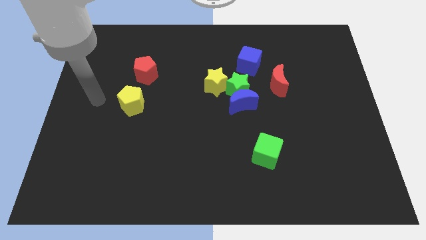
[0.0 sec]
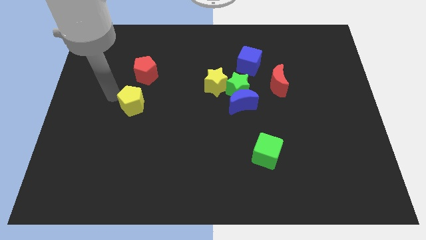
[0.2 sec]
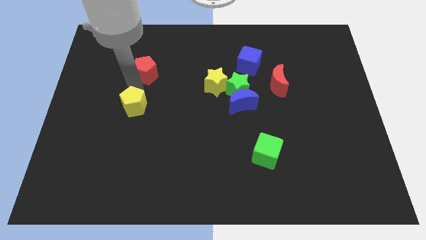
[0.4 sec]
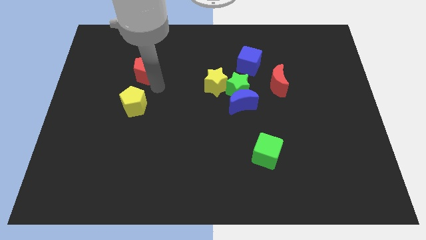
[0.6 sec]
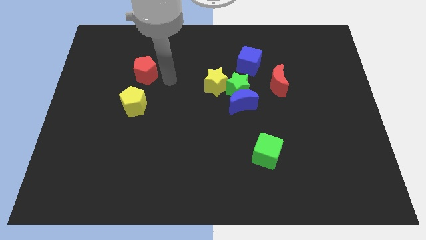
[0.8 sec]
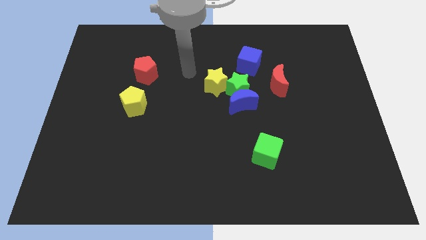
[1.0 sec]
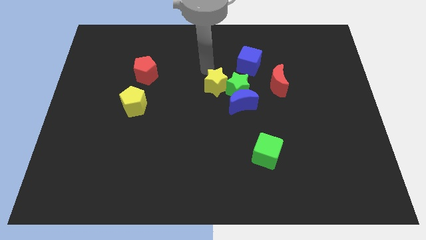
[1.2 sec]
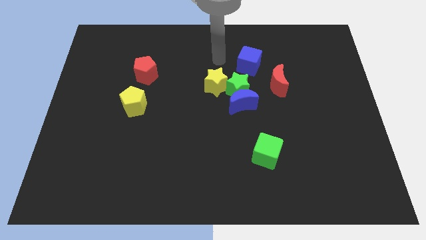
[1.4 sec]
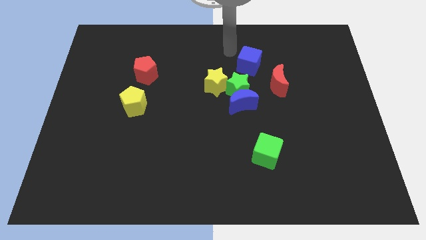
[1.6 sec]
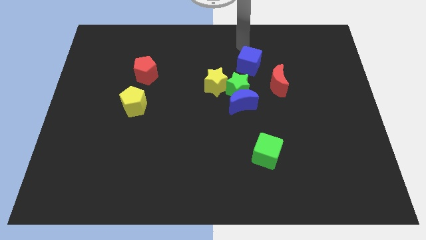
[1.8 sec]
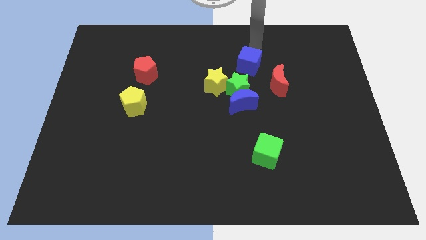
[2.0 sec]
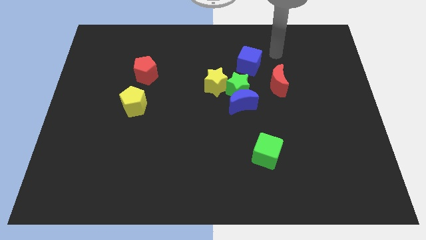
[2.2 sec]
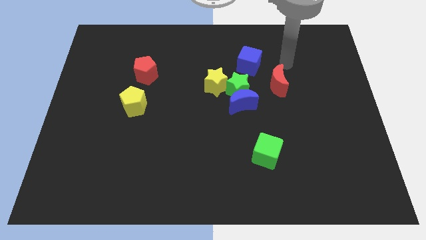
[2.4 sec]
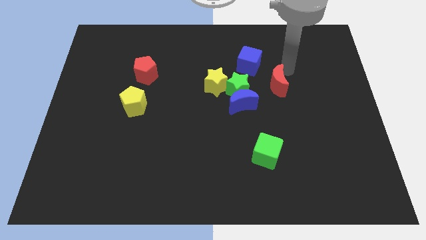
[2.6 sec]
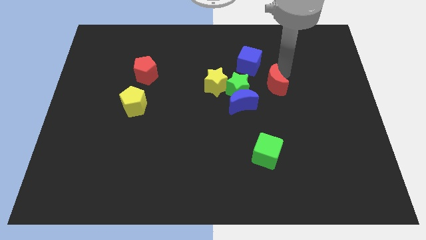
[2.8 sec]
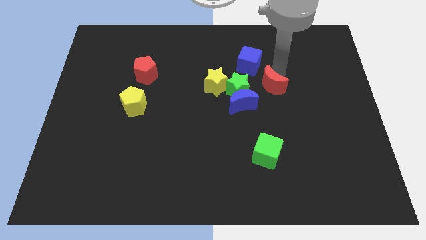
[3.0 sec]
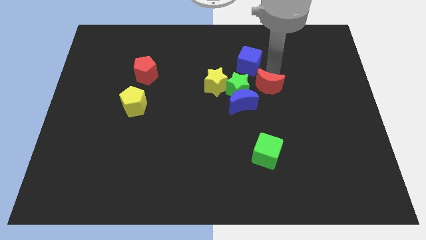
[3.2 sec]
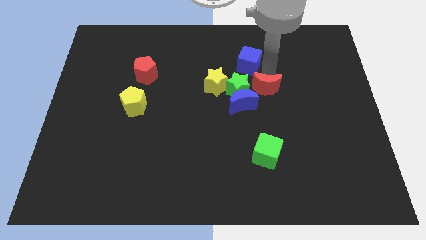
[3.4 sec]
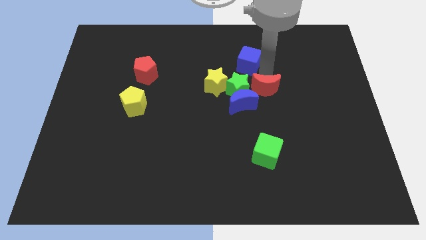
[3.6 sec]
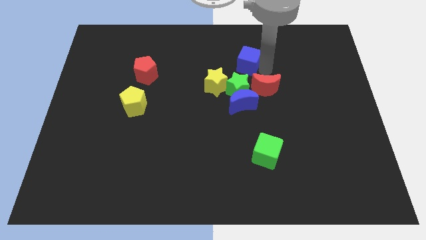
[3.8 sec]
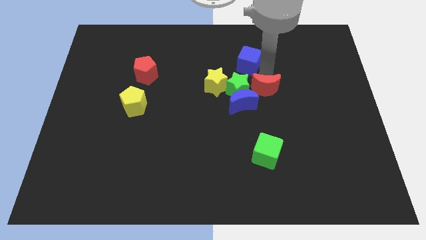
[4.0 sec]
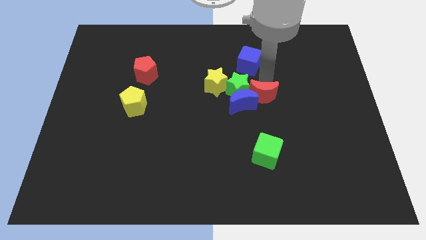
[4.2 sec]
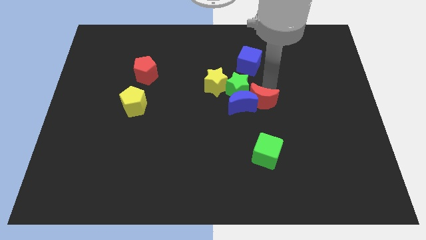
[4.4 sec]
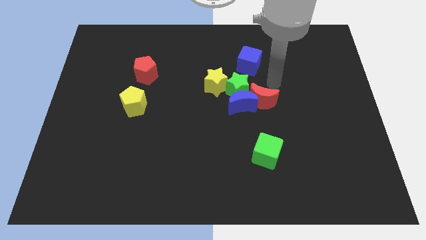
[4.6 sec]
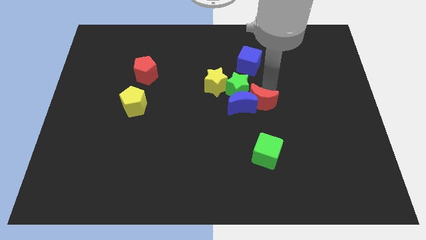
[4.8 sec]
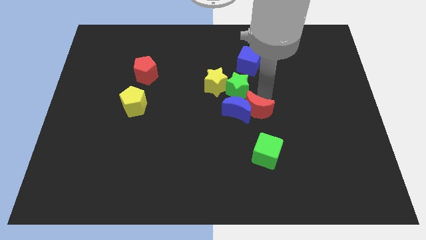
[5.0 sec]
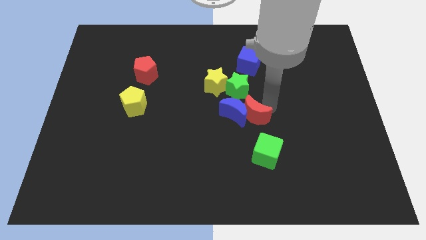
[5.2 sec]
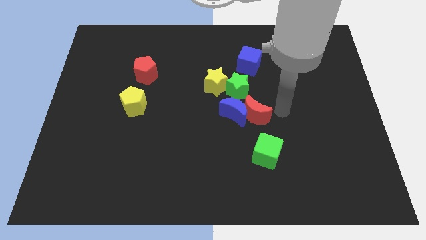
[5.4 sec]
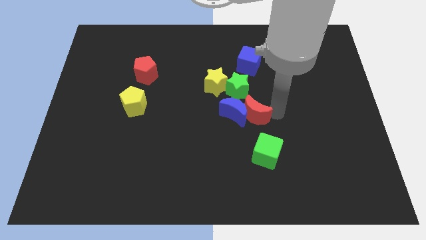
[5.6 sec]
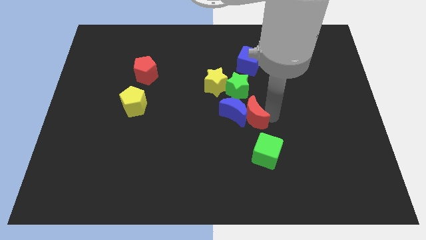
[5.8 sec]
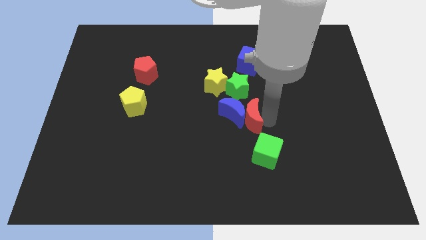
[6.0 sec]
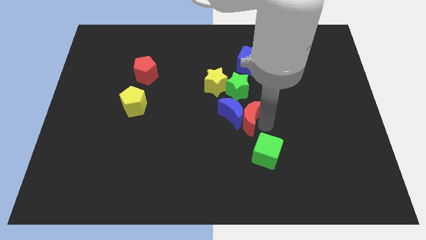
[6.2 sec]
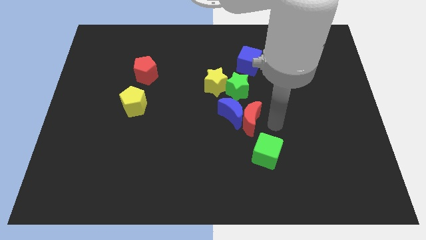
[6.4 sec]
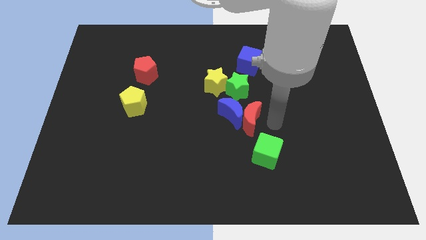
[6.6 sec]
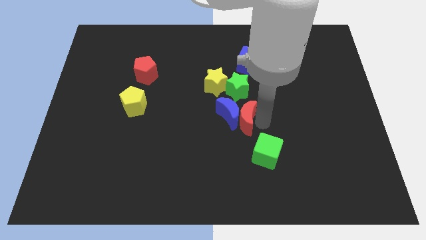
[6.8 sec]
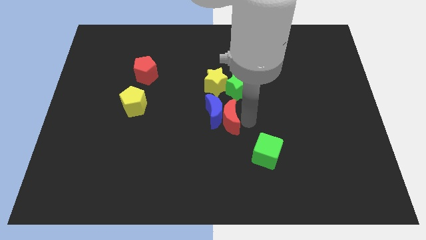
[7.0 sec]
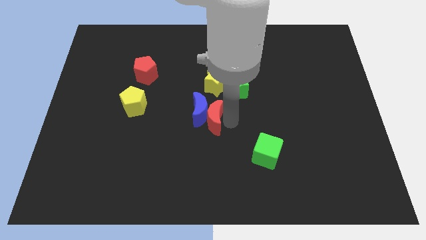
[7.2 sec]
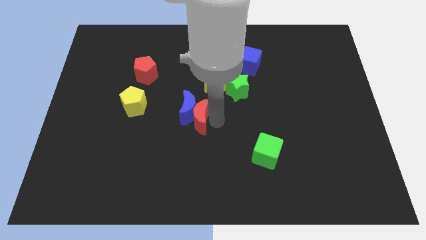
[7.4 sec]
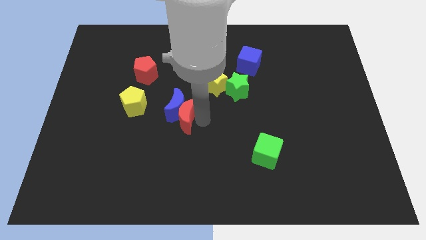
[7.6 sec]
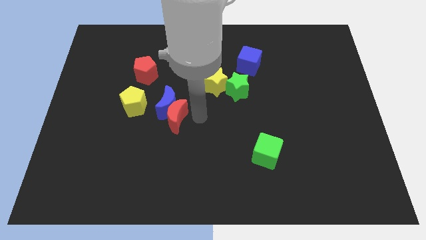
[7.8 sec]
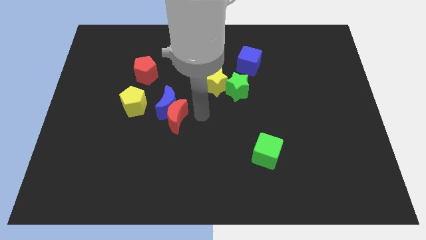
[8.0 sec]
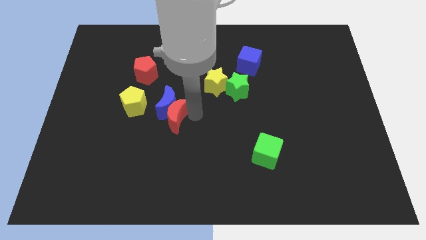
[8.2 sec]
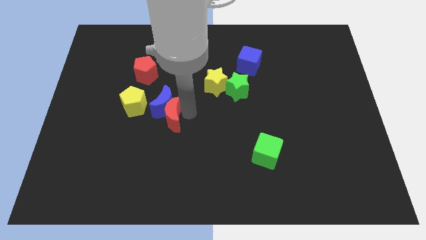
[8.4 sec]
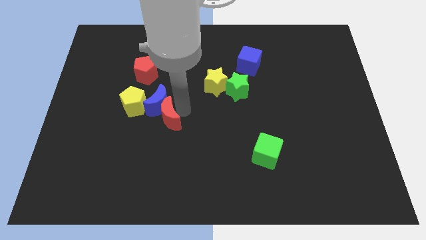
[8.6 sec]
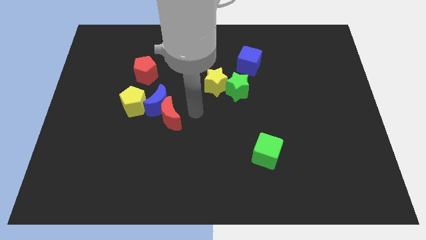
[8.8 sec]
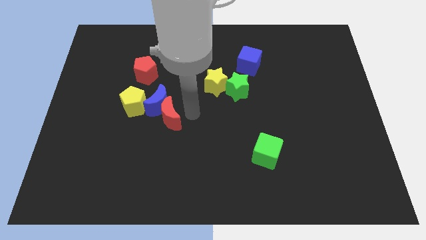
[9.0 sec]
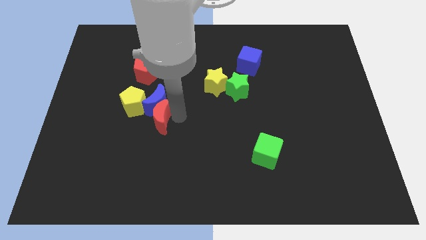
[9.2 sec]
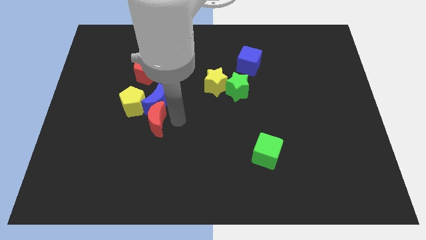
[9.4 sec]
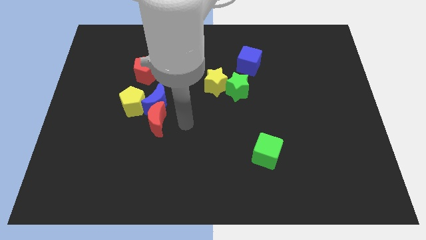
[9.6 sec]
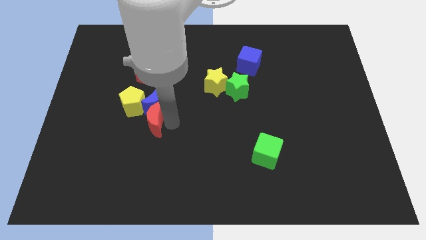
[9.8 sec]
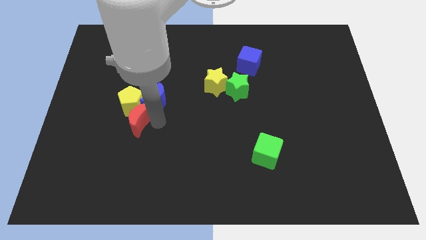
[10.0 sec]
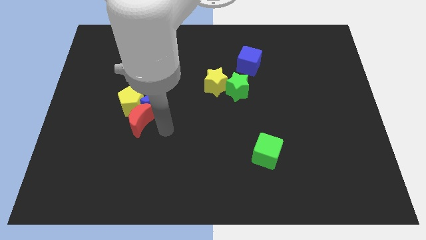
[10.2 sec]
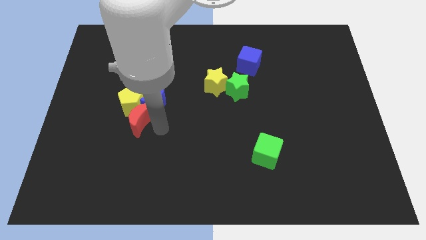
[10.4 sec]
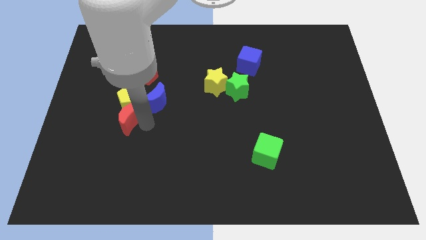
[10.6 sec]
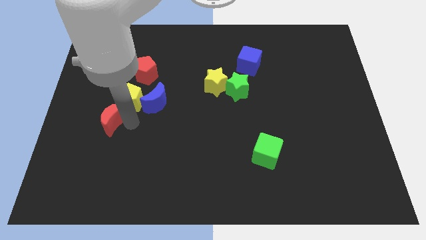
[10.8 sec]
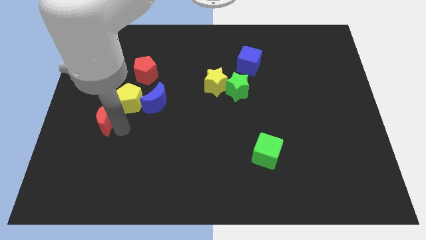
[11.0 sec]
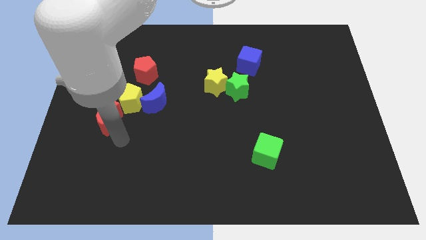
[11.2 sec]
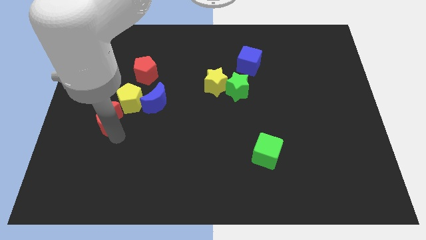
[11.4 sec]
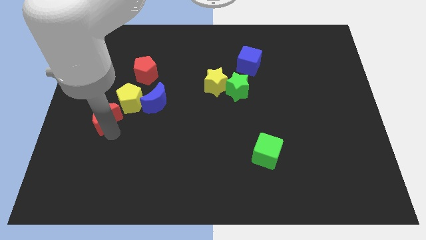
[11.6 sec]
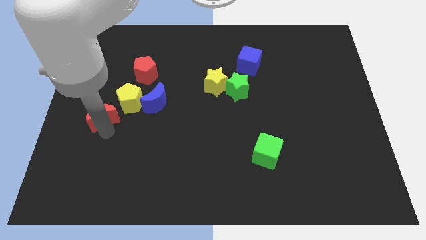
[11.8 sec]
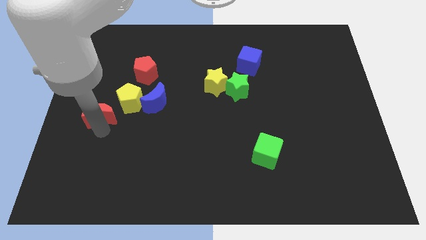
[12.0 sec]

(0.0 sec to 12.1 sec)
move the red moon to the left side
